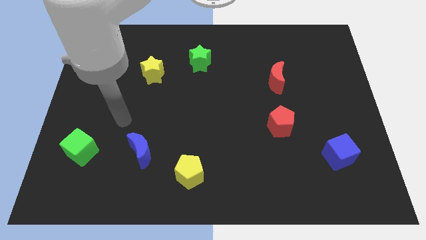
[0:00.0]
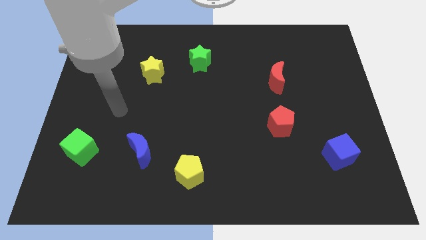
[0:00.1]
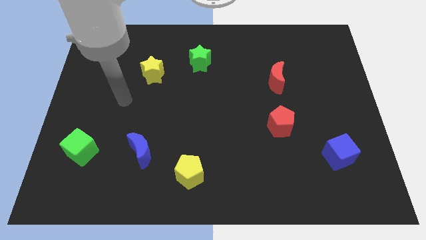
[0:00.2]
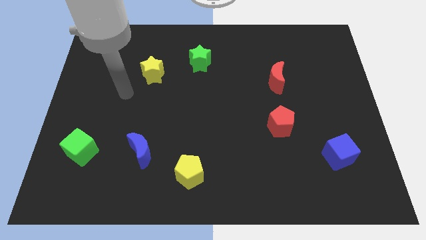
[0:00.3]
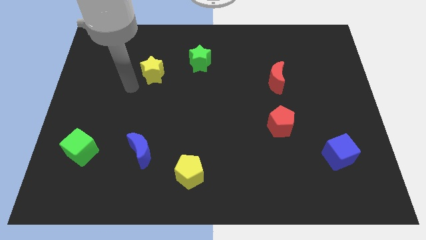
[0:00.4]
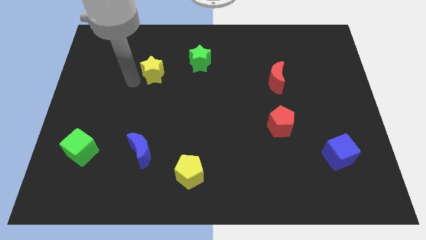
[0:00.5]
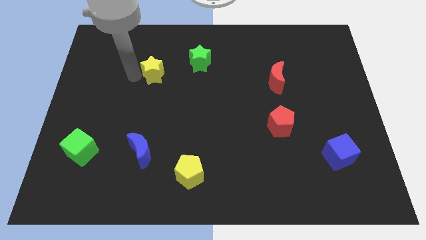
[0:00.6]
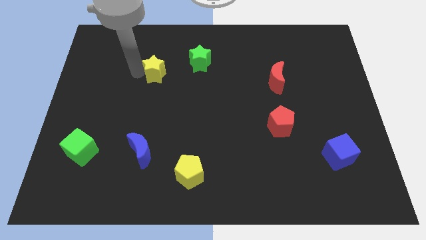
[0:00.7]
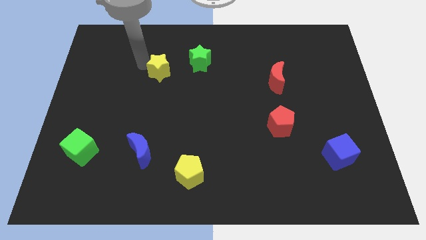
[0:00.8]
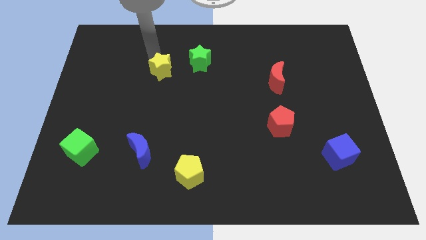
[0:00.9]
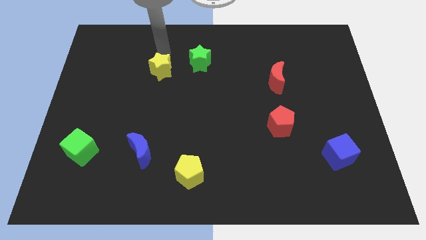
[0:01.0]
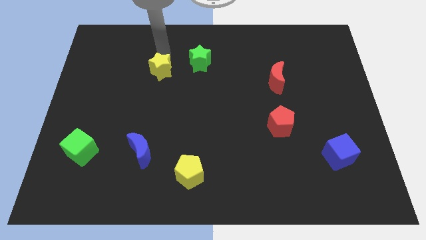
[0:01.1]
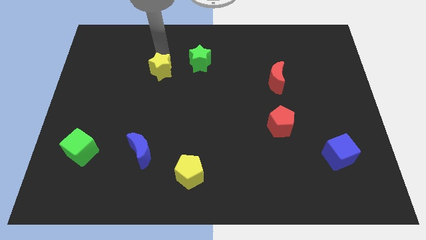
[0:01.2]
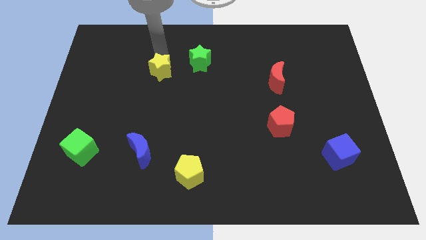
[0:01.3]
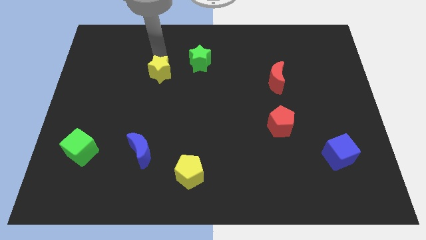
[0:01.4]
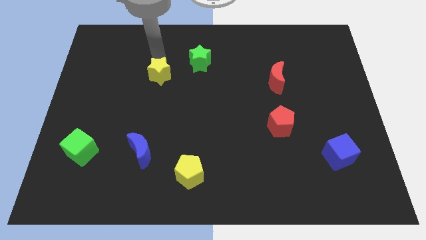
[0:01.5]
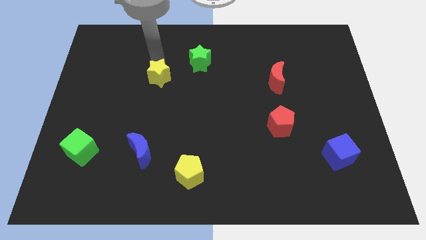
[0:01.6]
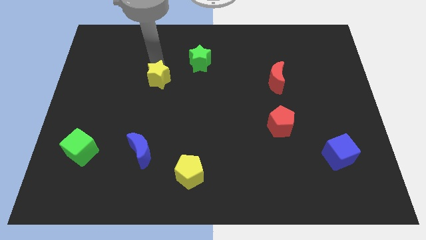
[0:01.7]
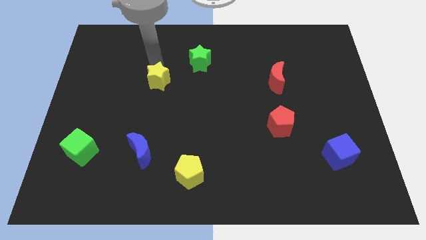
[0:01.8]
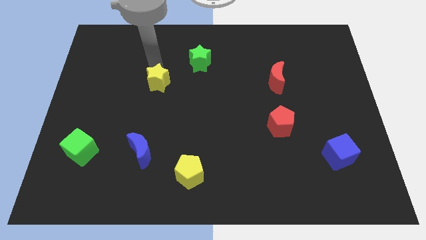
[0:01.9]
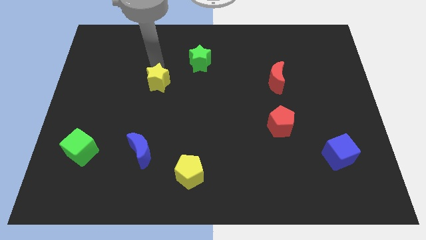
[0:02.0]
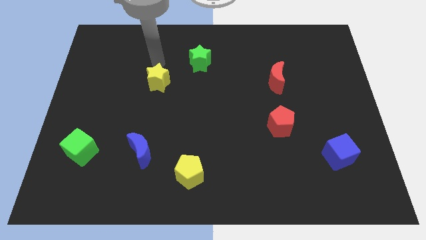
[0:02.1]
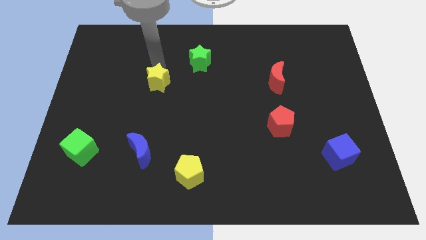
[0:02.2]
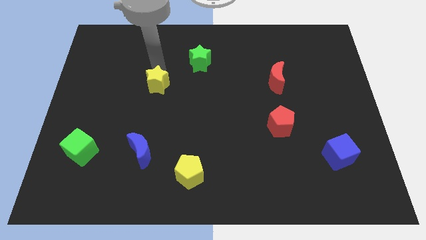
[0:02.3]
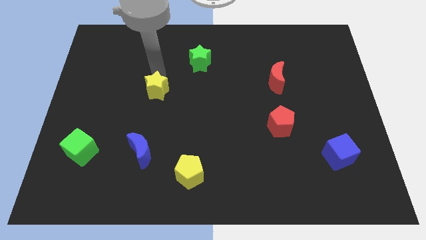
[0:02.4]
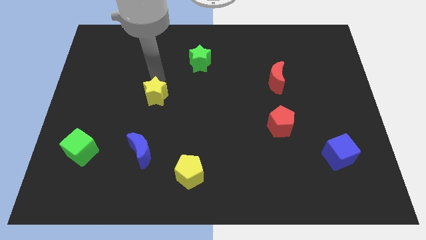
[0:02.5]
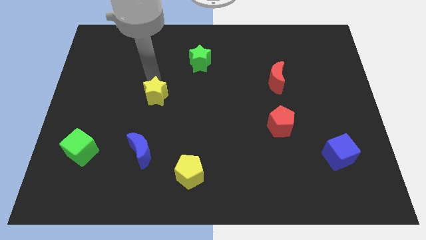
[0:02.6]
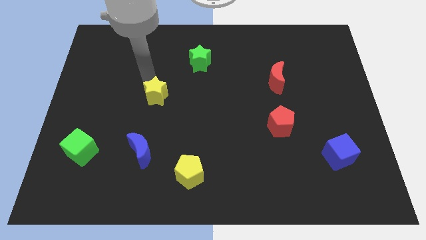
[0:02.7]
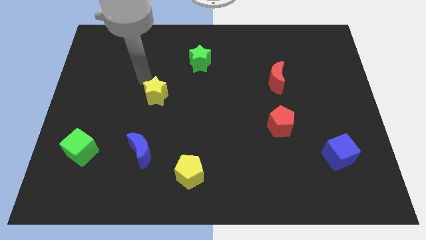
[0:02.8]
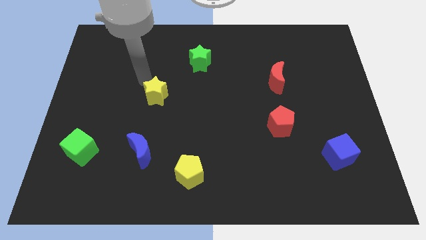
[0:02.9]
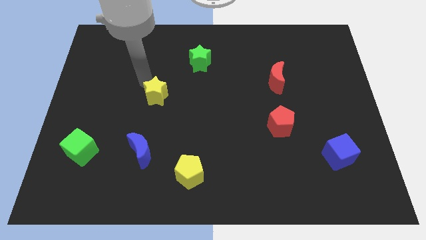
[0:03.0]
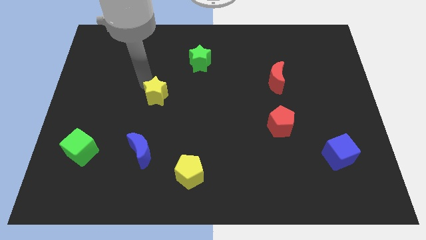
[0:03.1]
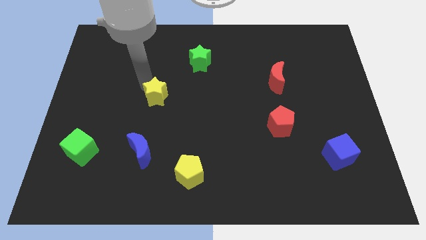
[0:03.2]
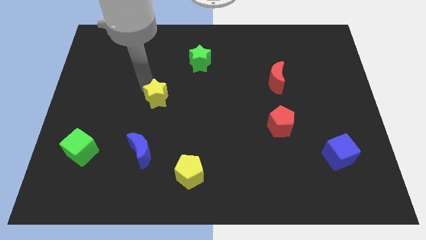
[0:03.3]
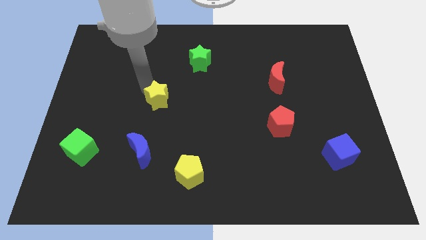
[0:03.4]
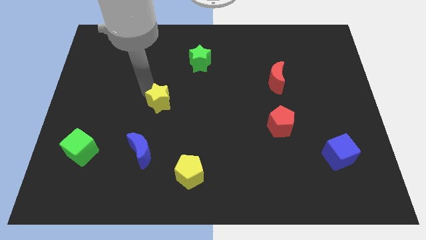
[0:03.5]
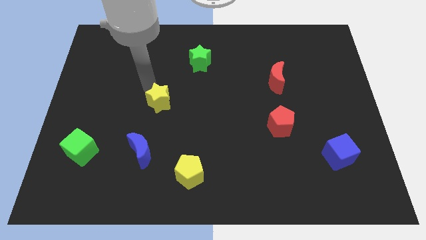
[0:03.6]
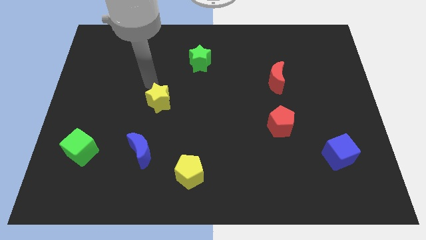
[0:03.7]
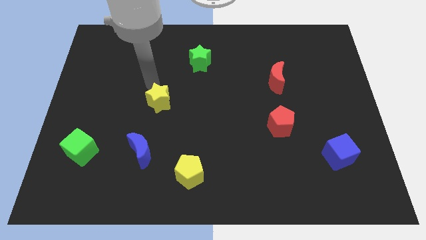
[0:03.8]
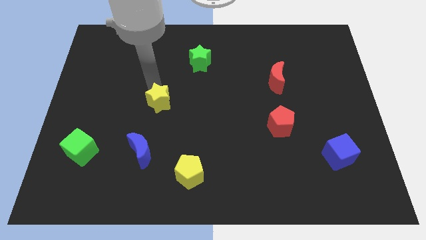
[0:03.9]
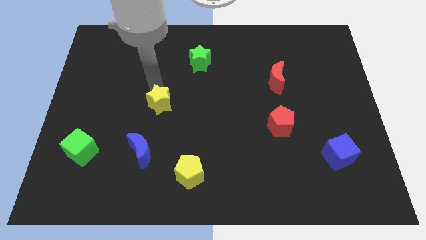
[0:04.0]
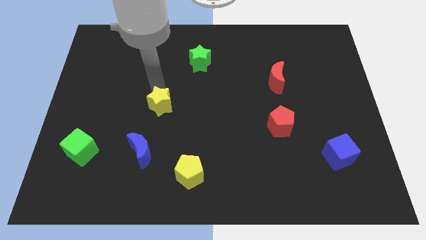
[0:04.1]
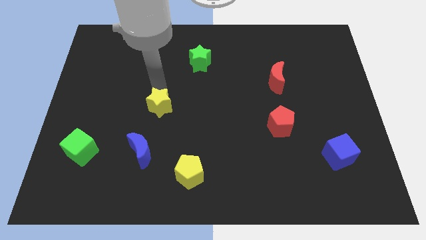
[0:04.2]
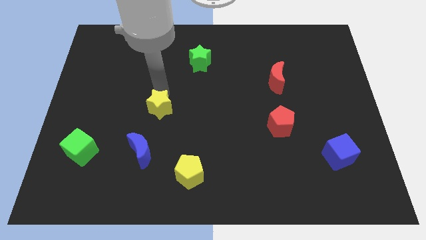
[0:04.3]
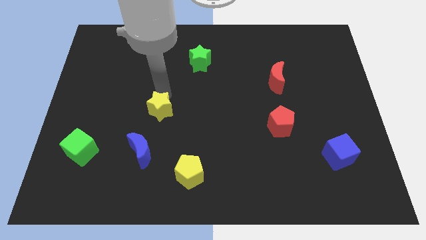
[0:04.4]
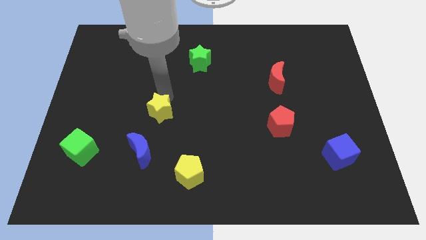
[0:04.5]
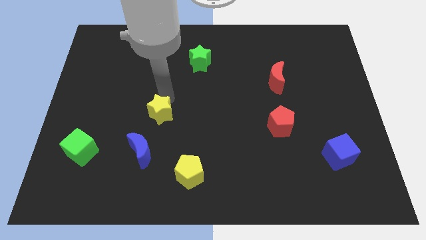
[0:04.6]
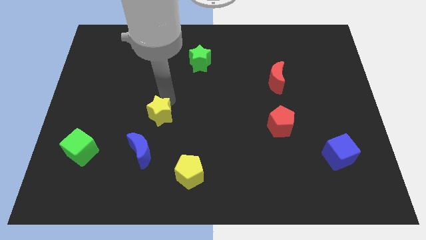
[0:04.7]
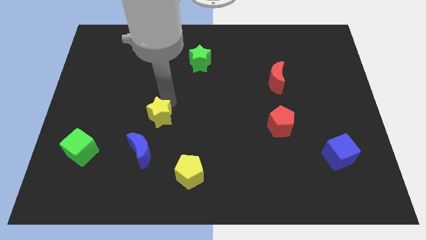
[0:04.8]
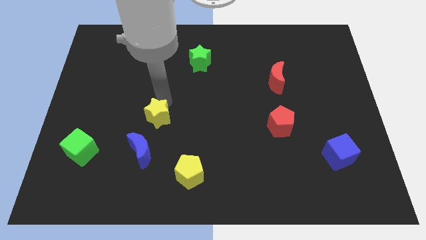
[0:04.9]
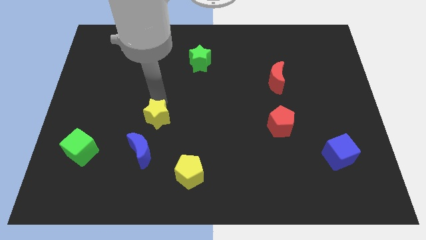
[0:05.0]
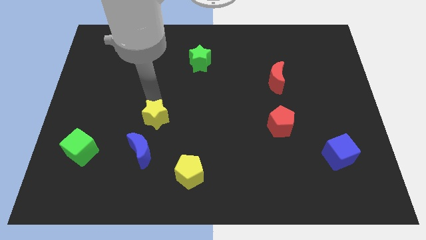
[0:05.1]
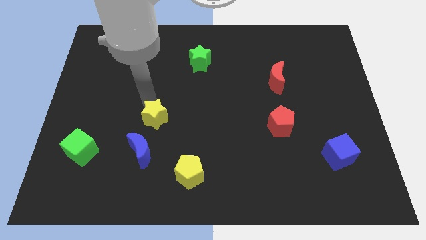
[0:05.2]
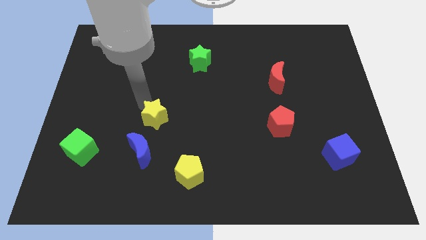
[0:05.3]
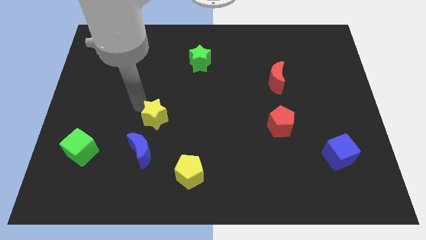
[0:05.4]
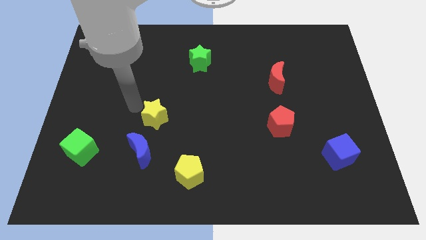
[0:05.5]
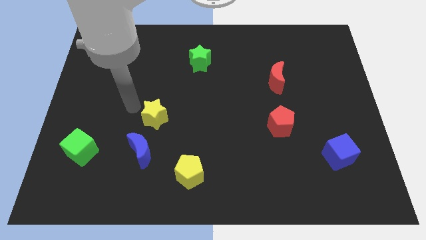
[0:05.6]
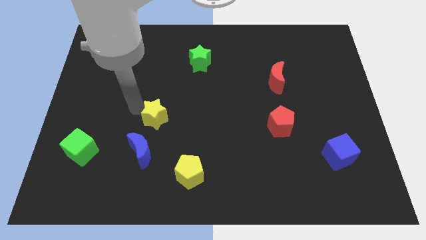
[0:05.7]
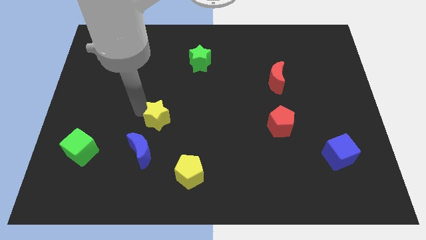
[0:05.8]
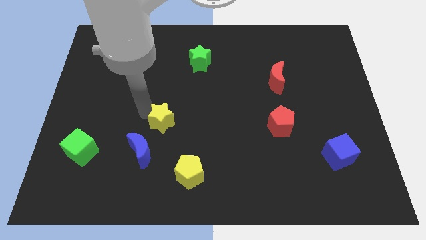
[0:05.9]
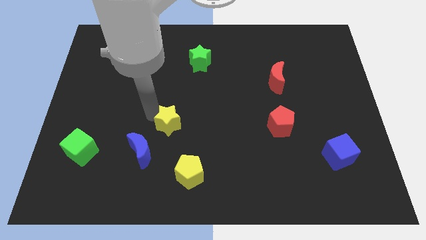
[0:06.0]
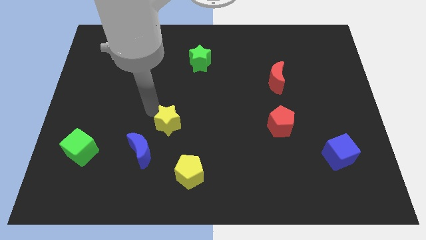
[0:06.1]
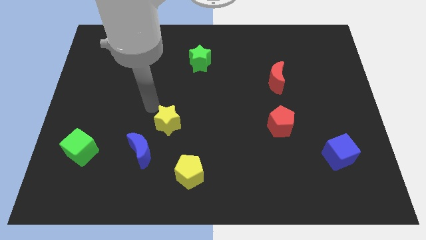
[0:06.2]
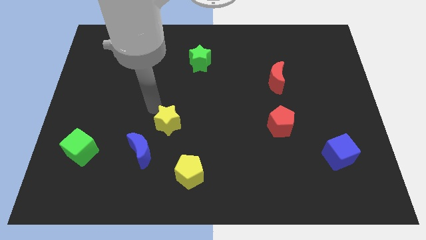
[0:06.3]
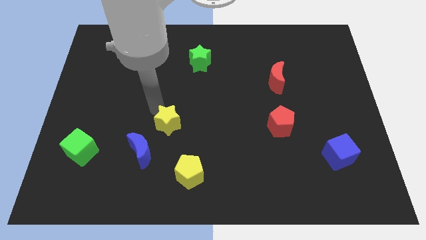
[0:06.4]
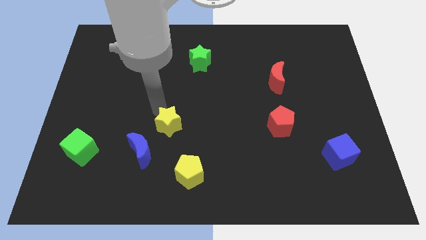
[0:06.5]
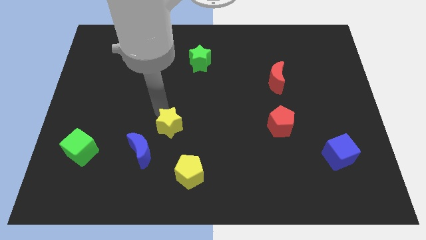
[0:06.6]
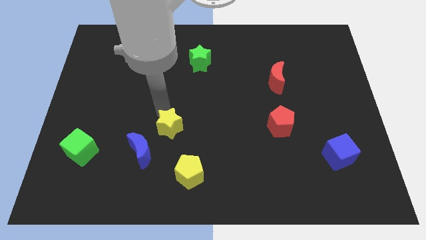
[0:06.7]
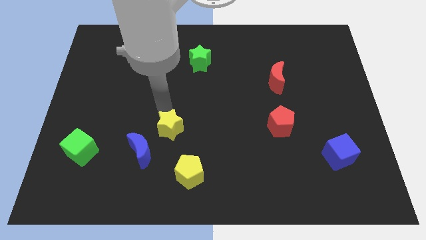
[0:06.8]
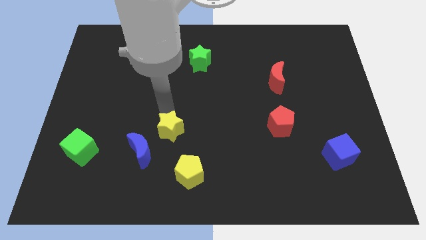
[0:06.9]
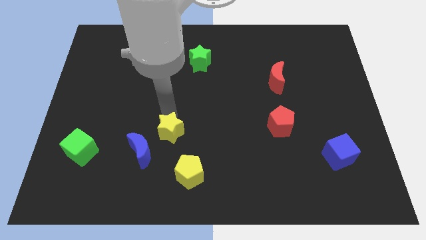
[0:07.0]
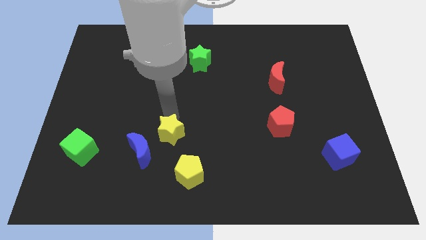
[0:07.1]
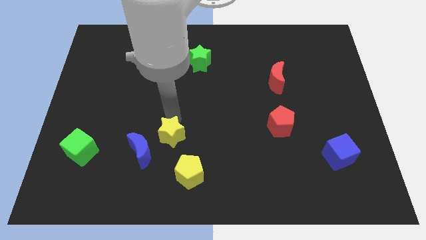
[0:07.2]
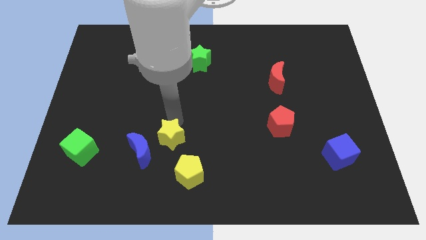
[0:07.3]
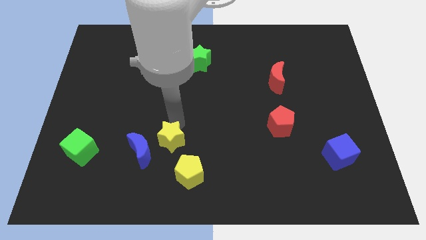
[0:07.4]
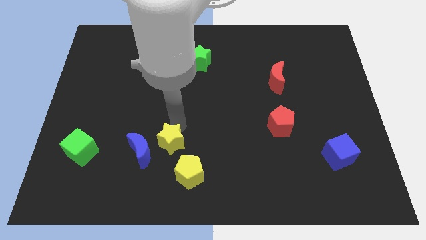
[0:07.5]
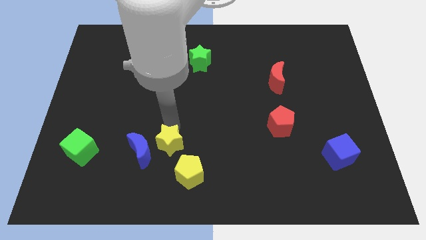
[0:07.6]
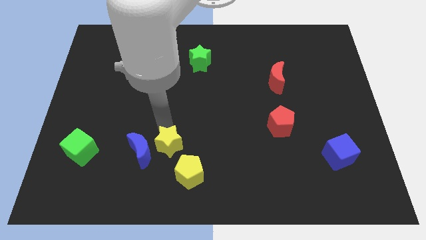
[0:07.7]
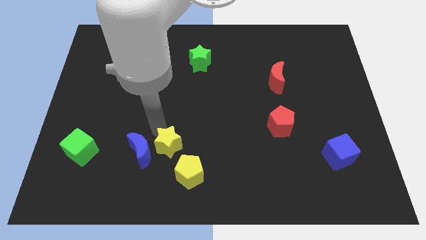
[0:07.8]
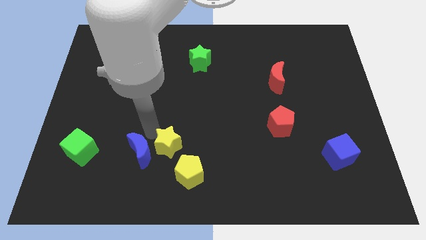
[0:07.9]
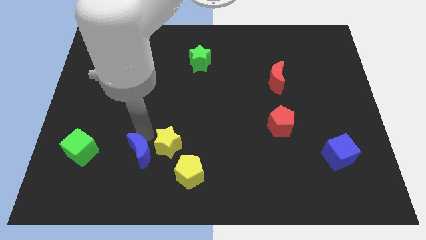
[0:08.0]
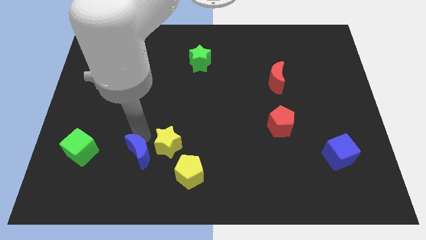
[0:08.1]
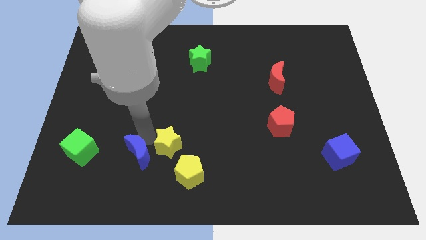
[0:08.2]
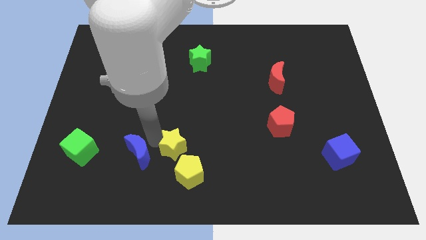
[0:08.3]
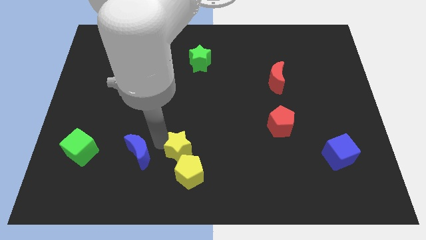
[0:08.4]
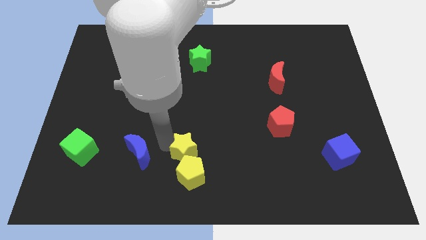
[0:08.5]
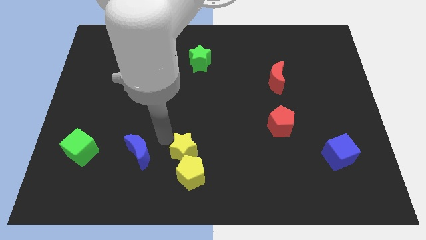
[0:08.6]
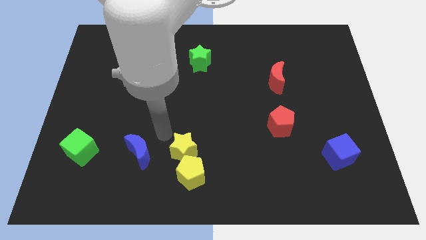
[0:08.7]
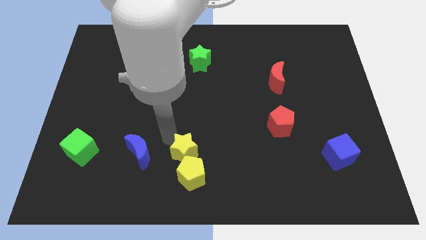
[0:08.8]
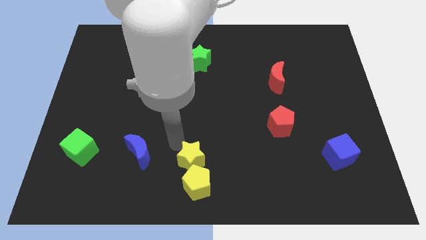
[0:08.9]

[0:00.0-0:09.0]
push the yellow star to the bottom side

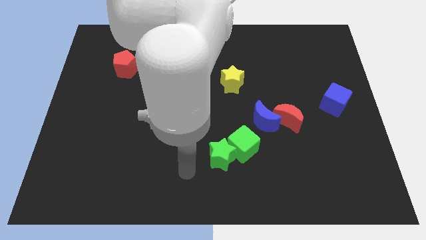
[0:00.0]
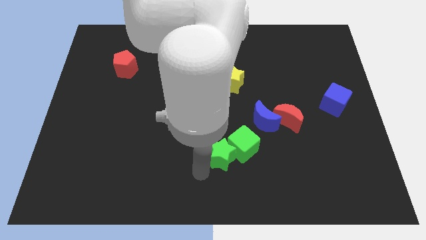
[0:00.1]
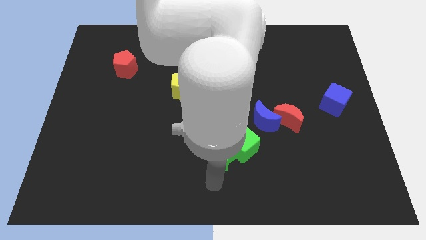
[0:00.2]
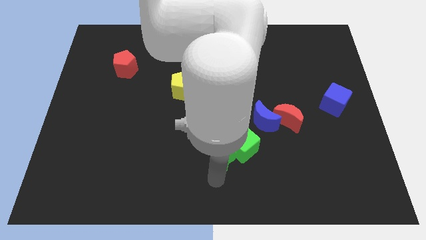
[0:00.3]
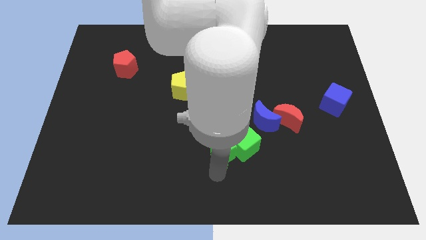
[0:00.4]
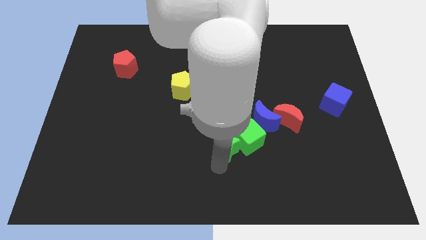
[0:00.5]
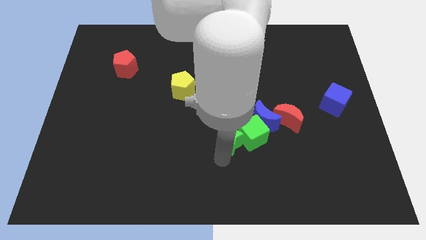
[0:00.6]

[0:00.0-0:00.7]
push the green star to the middle
